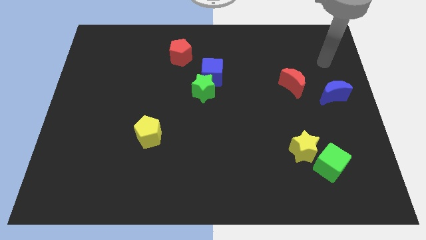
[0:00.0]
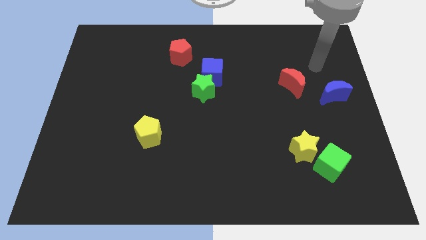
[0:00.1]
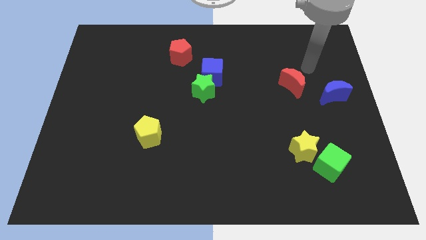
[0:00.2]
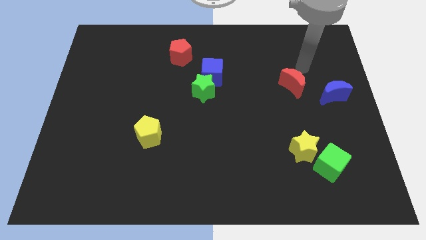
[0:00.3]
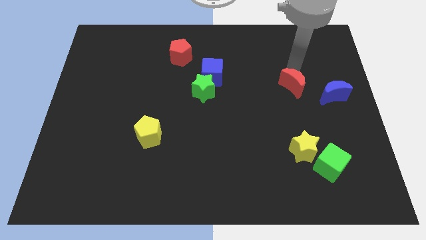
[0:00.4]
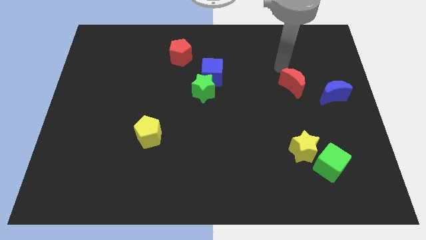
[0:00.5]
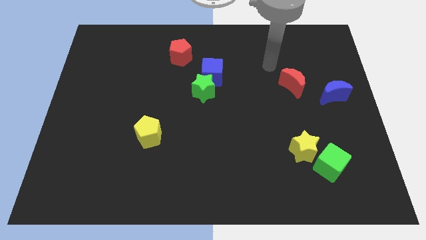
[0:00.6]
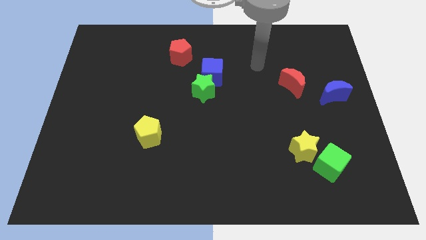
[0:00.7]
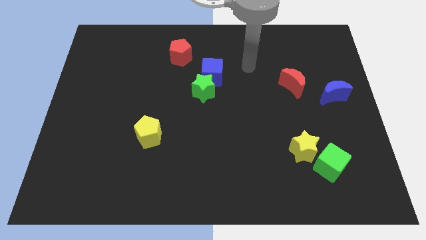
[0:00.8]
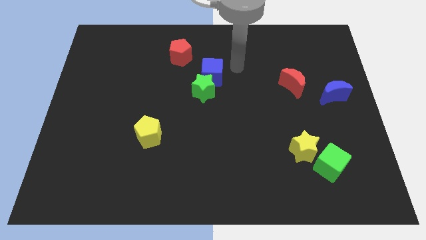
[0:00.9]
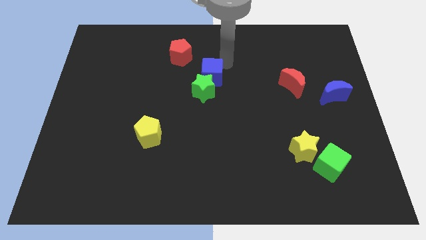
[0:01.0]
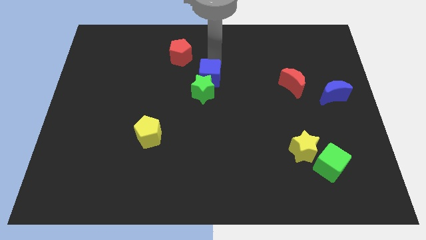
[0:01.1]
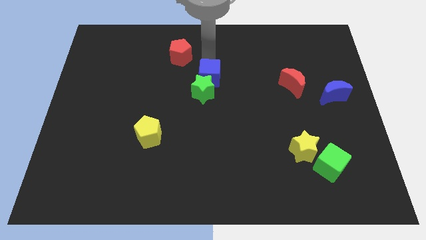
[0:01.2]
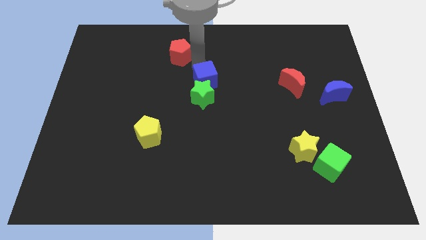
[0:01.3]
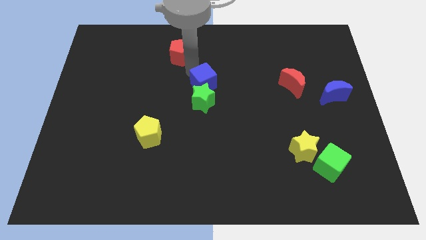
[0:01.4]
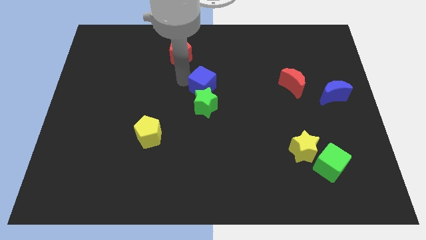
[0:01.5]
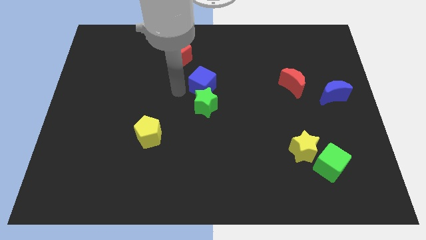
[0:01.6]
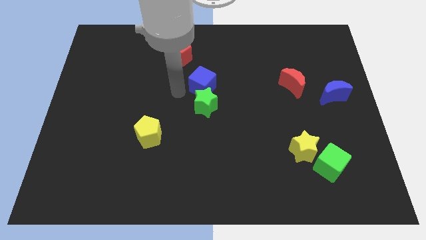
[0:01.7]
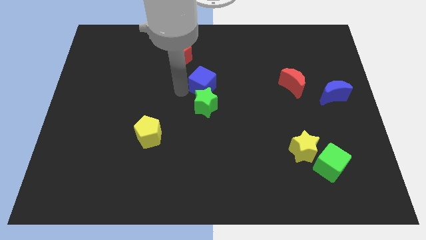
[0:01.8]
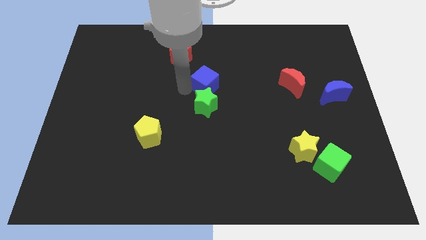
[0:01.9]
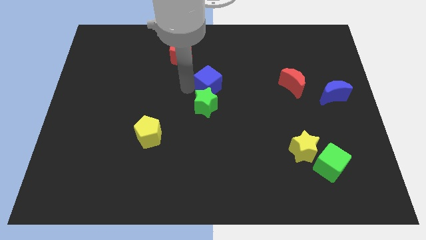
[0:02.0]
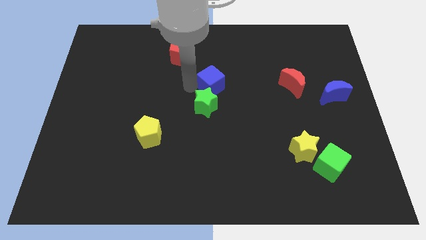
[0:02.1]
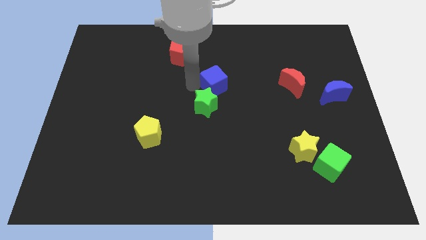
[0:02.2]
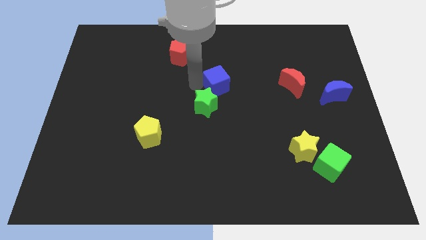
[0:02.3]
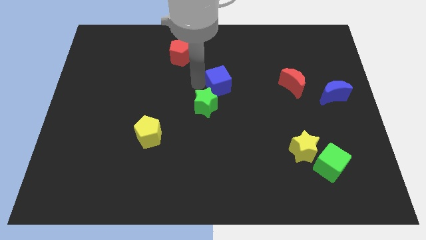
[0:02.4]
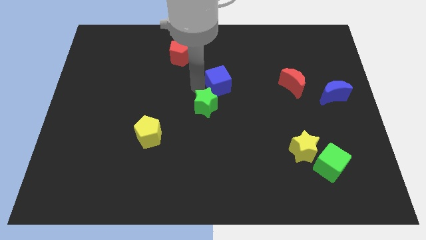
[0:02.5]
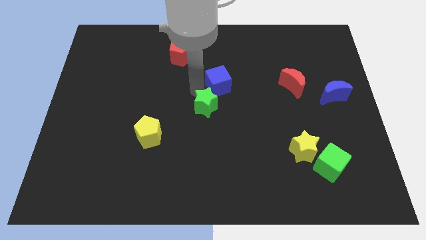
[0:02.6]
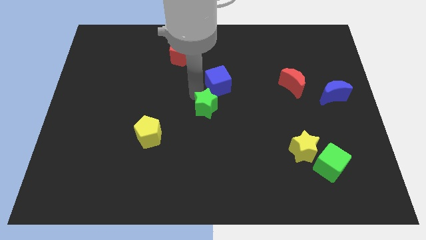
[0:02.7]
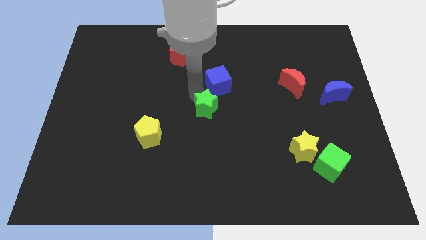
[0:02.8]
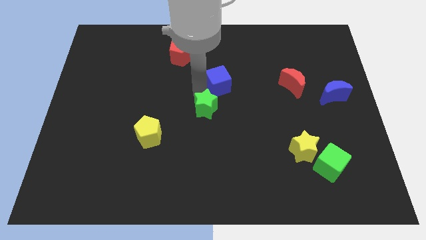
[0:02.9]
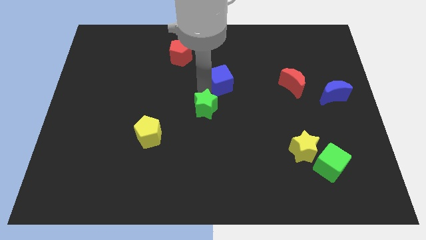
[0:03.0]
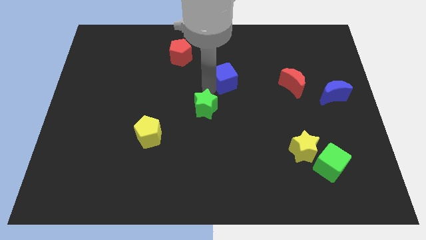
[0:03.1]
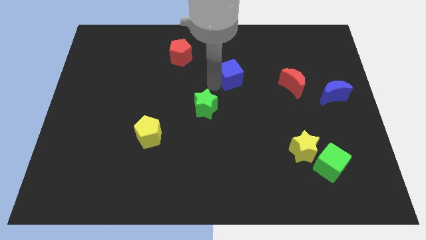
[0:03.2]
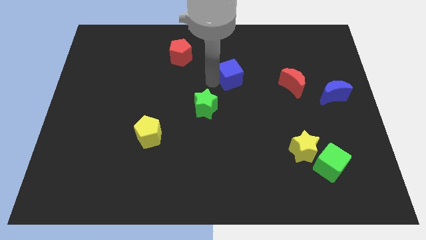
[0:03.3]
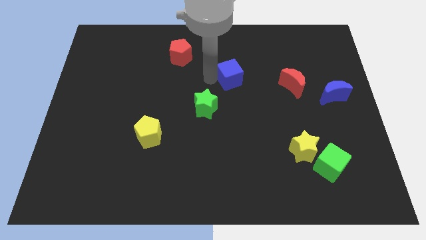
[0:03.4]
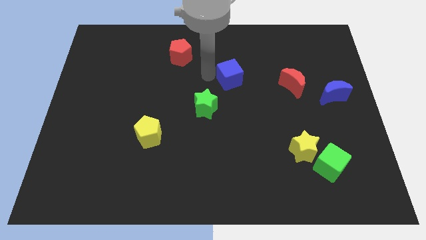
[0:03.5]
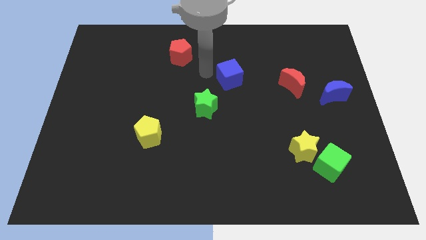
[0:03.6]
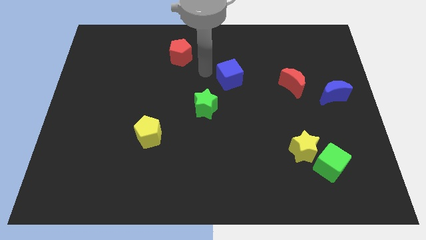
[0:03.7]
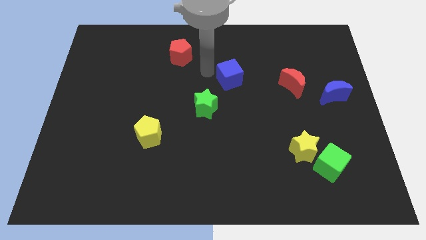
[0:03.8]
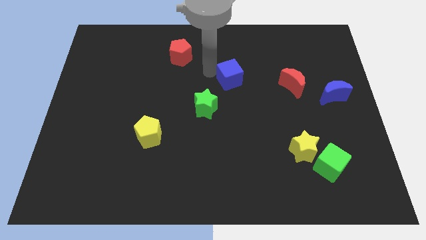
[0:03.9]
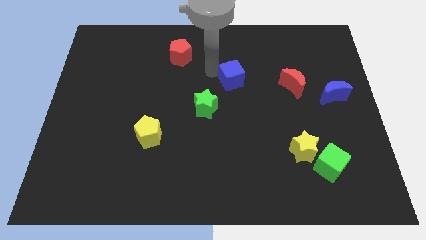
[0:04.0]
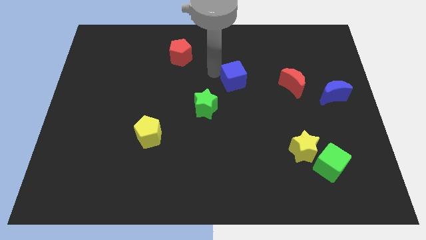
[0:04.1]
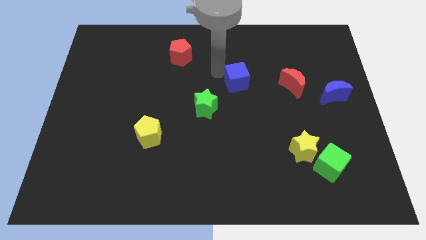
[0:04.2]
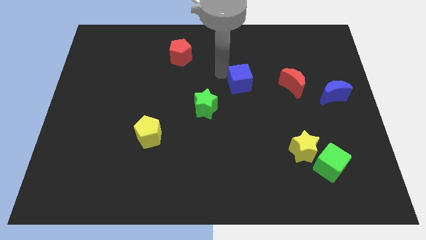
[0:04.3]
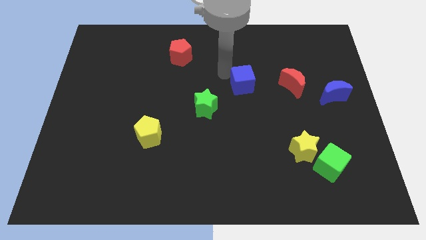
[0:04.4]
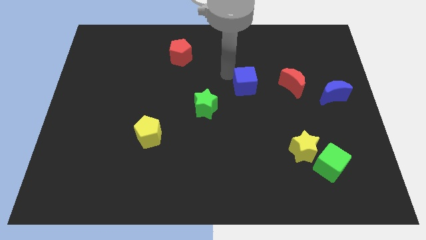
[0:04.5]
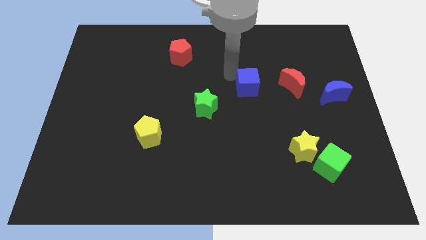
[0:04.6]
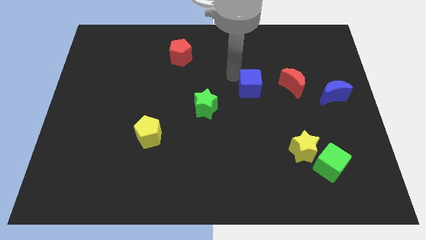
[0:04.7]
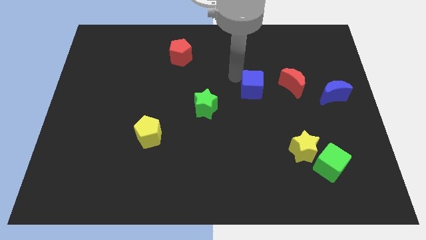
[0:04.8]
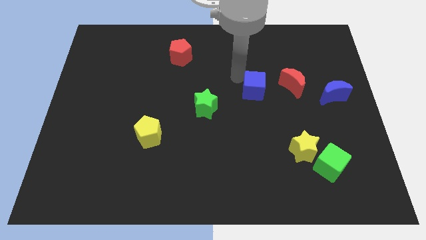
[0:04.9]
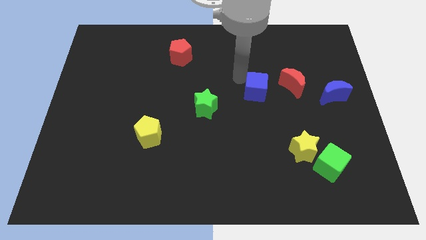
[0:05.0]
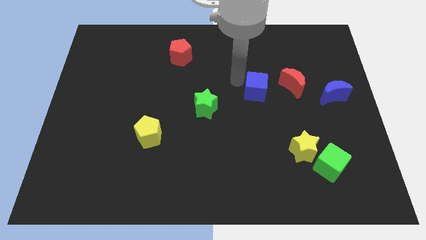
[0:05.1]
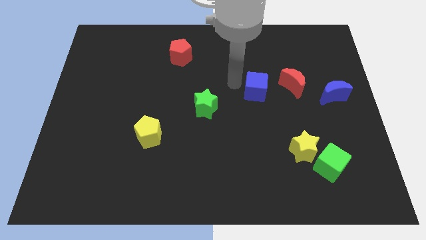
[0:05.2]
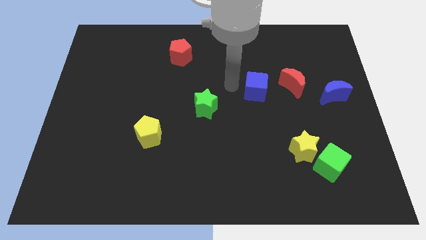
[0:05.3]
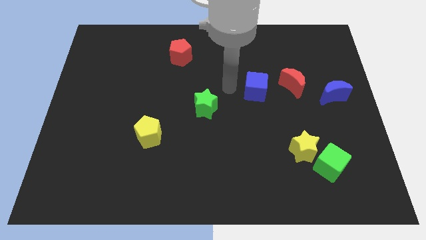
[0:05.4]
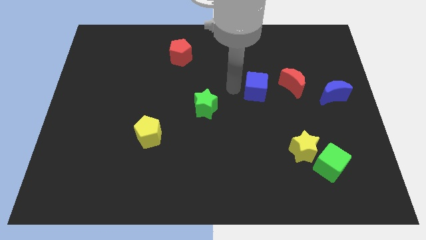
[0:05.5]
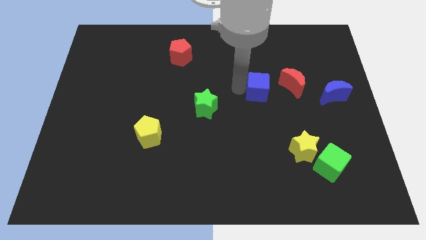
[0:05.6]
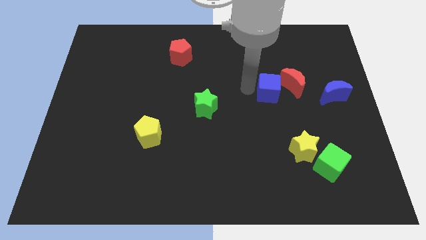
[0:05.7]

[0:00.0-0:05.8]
move the blue cube to the left of the blue moon

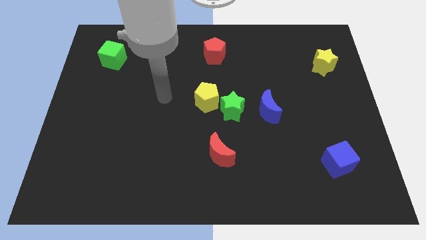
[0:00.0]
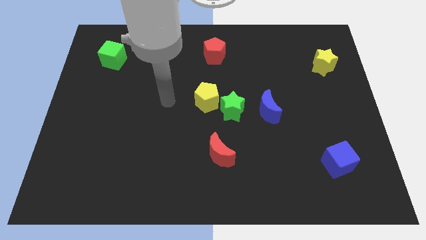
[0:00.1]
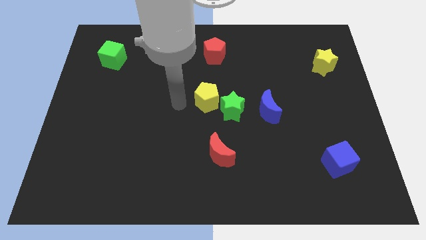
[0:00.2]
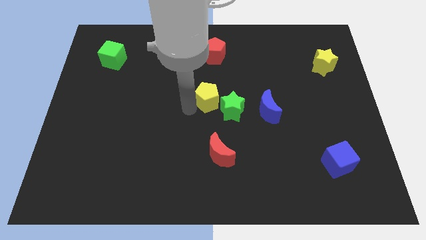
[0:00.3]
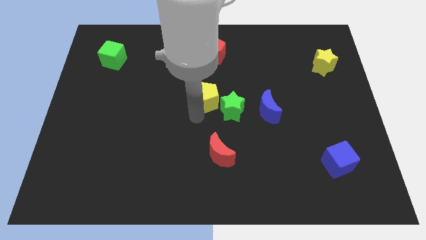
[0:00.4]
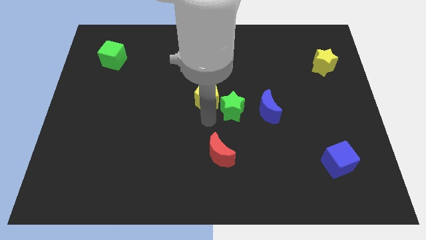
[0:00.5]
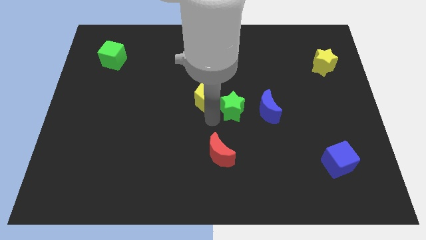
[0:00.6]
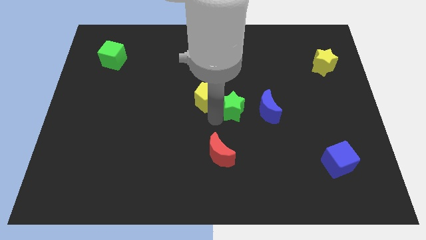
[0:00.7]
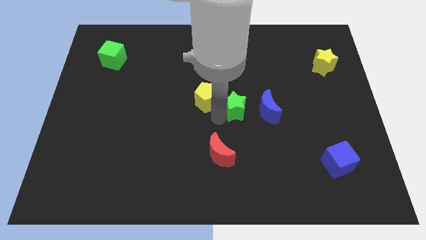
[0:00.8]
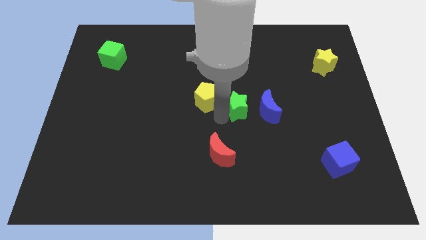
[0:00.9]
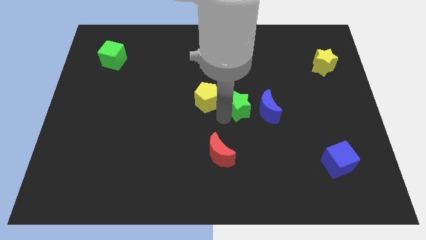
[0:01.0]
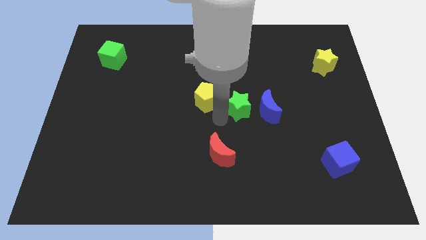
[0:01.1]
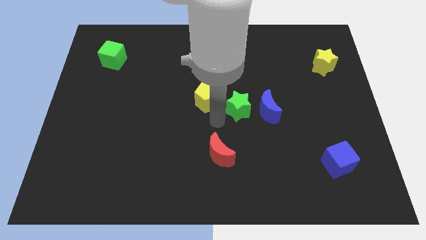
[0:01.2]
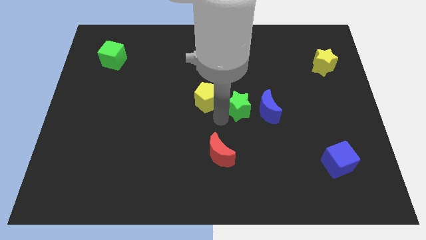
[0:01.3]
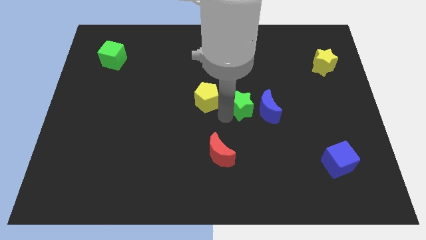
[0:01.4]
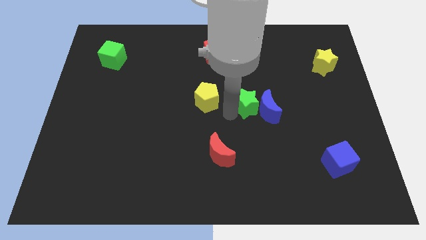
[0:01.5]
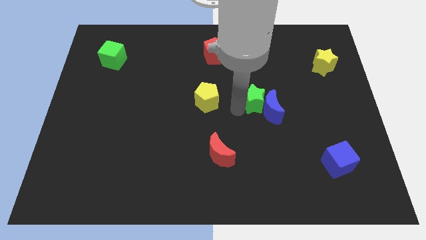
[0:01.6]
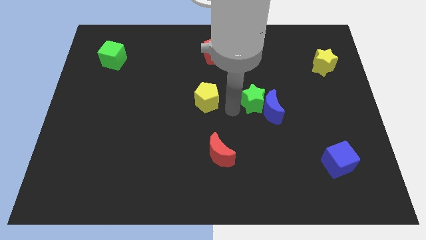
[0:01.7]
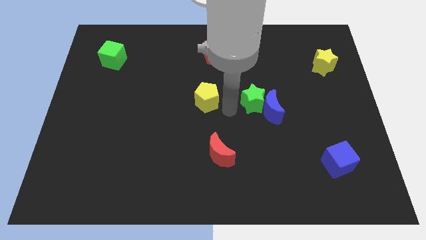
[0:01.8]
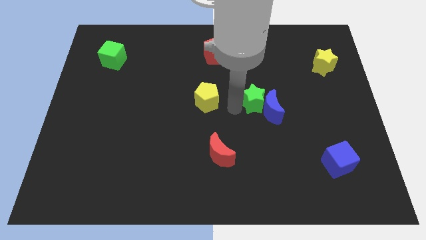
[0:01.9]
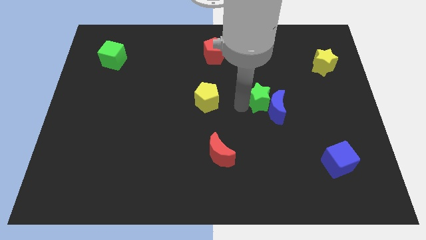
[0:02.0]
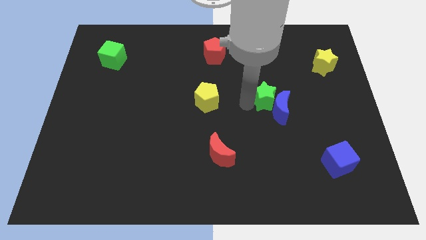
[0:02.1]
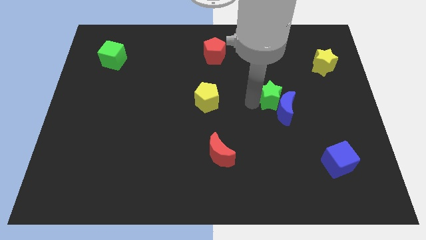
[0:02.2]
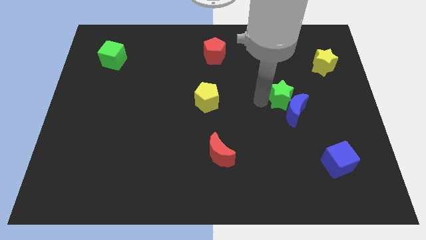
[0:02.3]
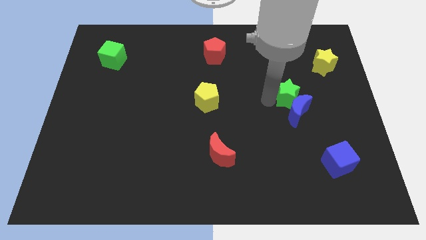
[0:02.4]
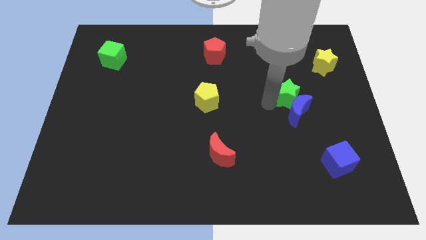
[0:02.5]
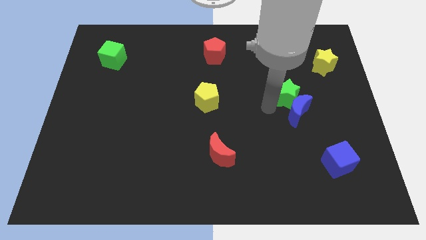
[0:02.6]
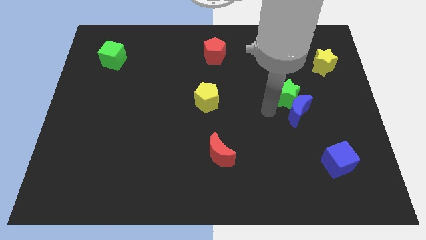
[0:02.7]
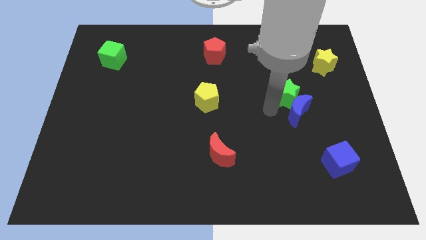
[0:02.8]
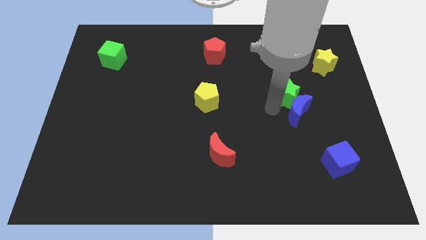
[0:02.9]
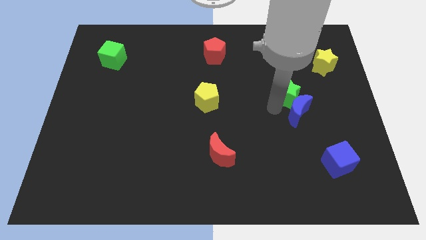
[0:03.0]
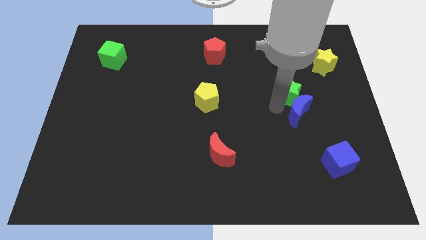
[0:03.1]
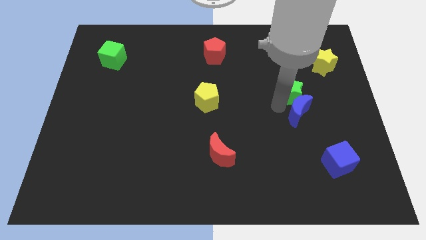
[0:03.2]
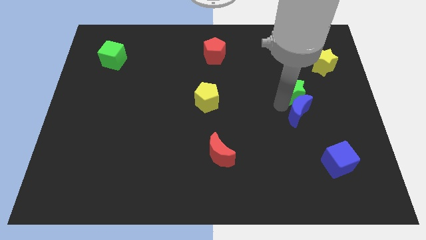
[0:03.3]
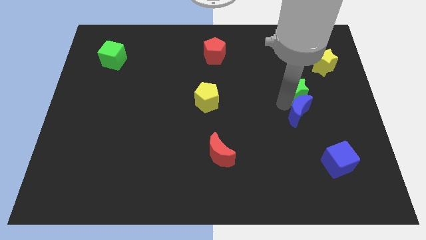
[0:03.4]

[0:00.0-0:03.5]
slide the green star to the bottom left side of the yellow star
